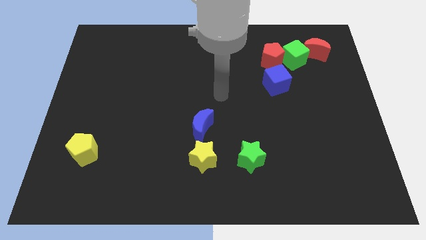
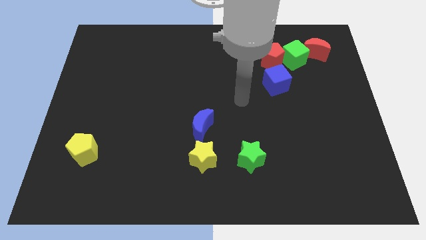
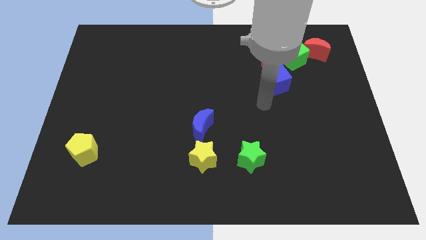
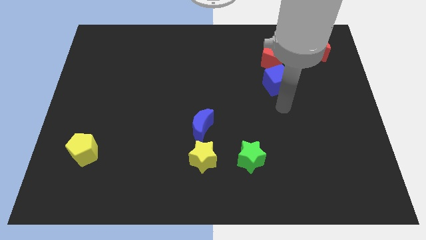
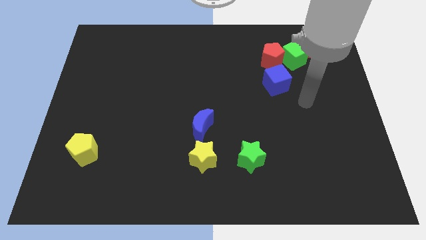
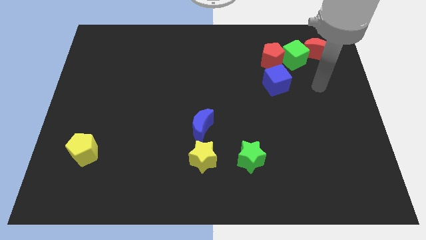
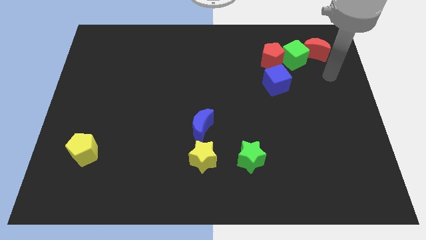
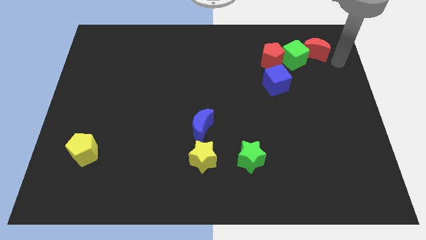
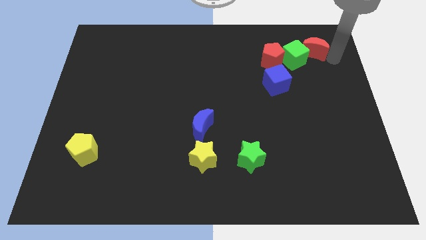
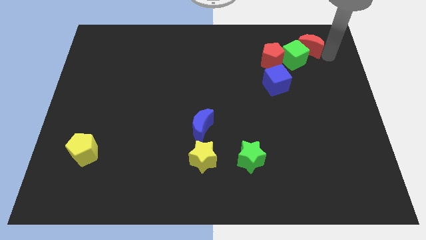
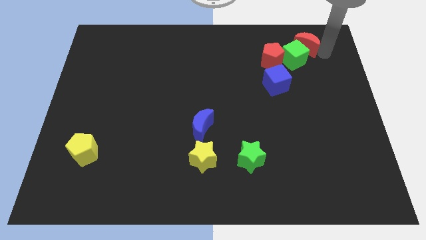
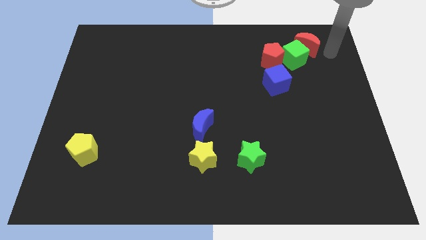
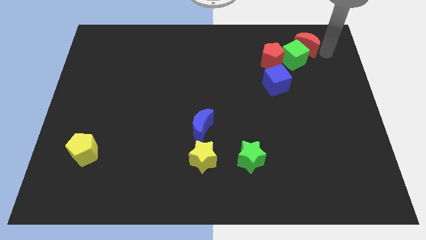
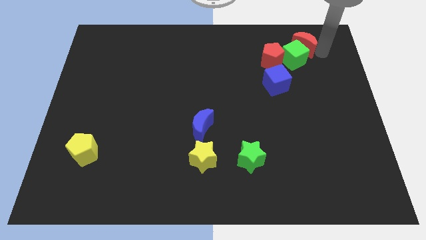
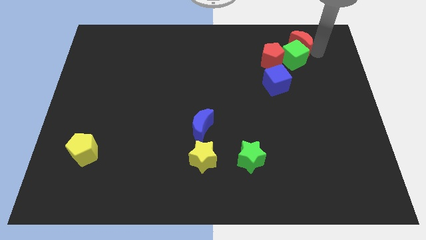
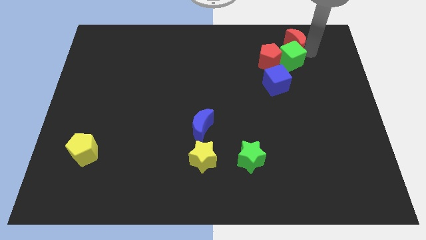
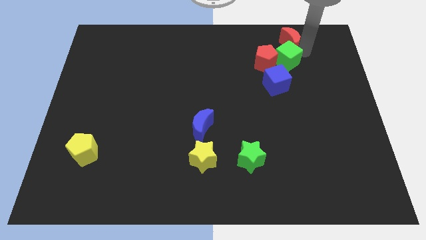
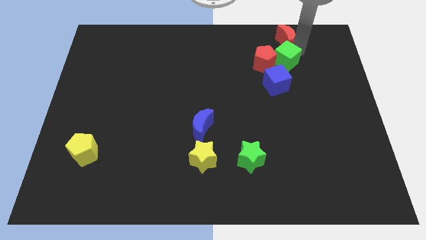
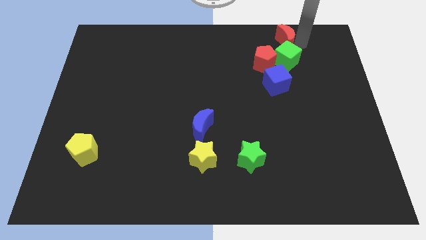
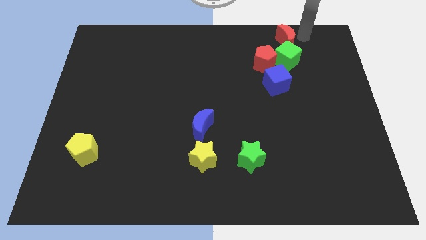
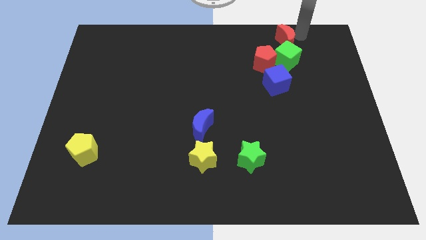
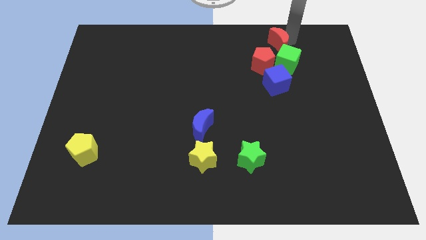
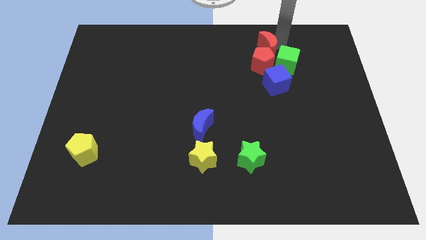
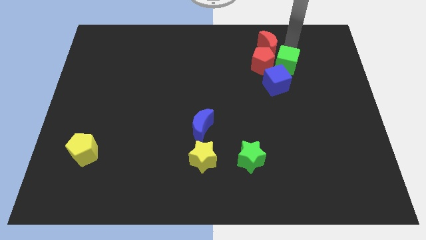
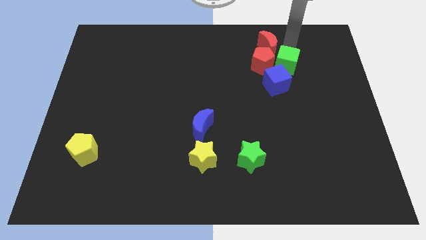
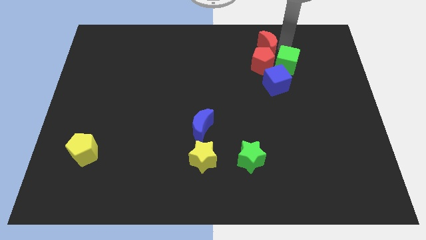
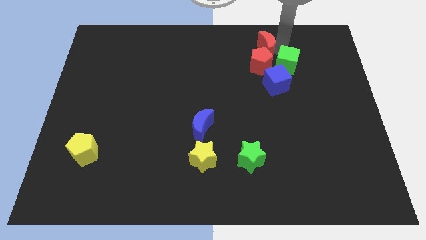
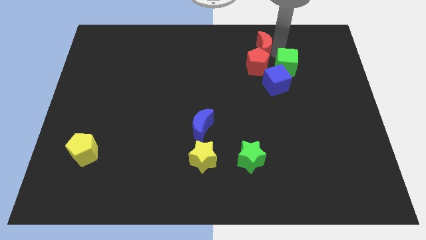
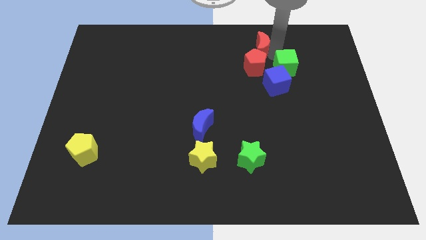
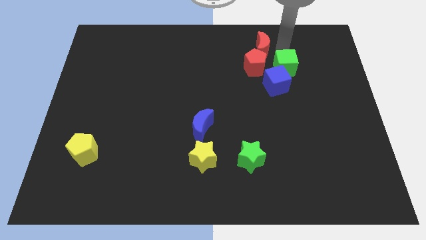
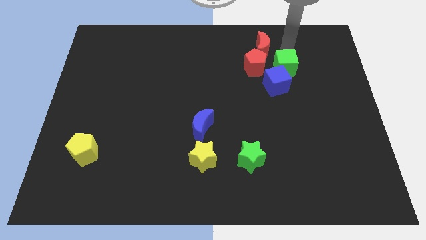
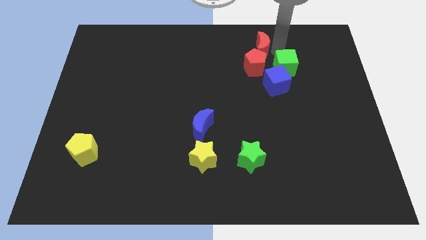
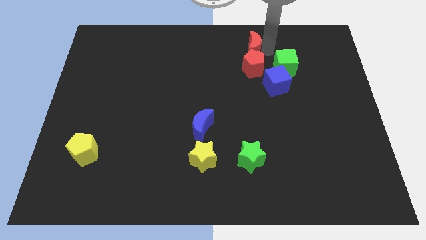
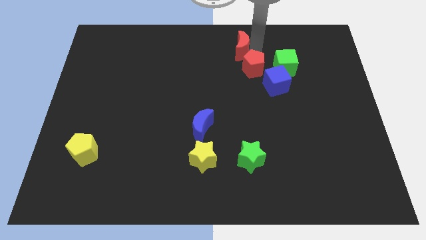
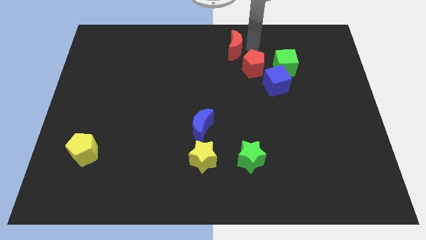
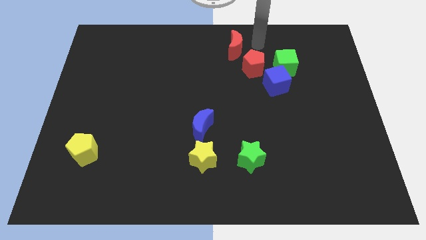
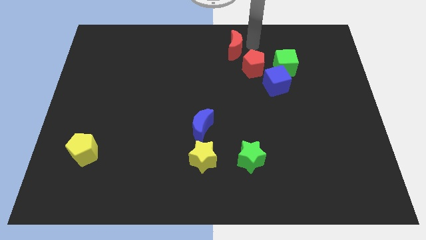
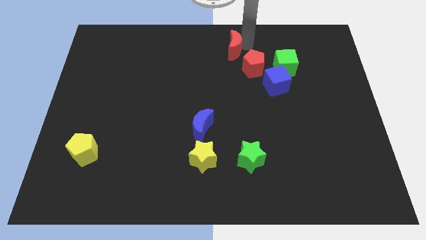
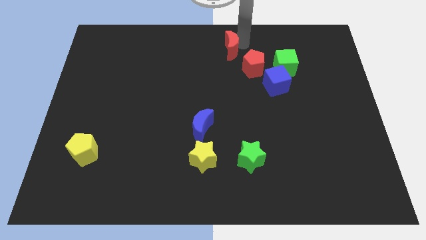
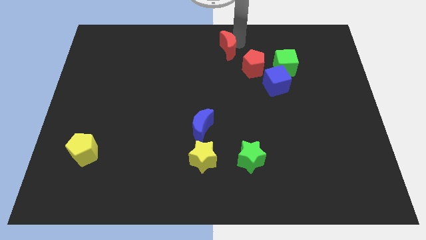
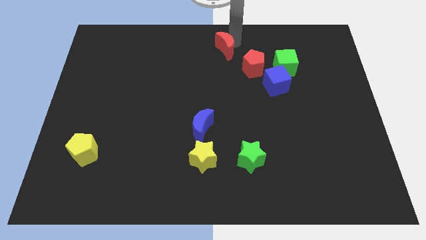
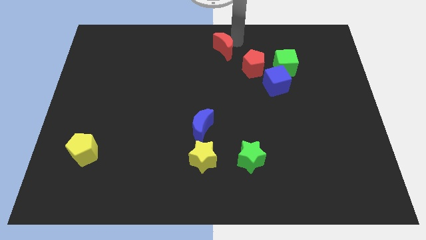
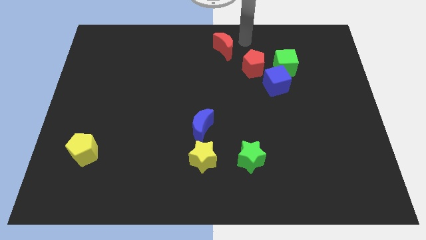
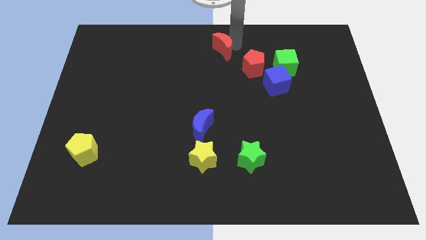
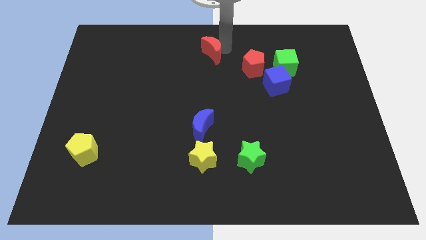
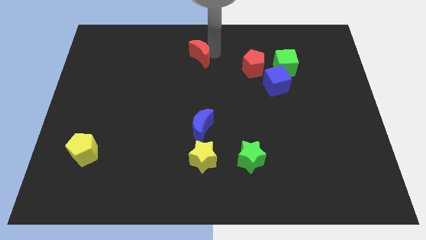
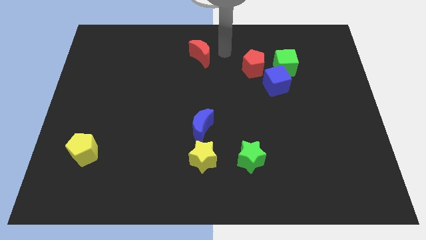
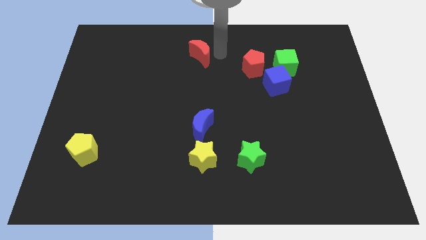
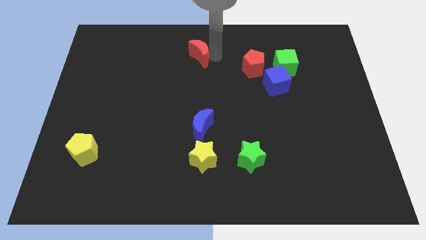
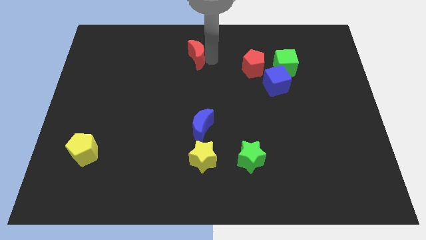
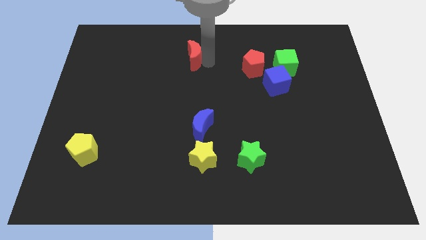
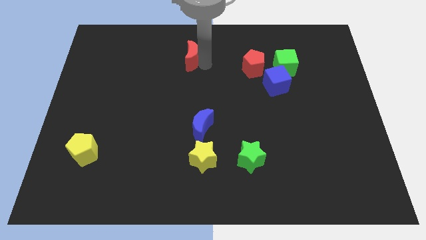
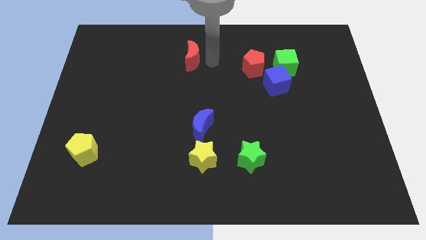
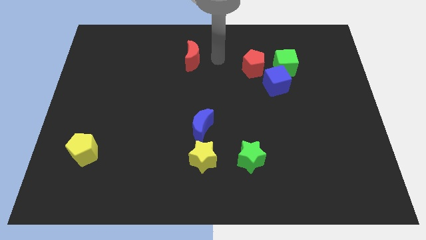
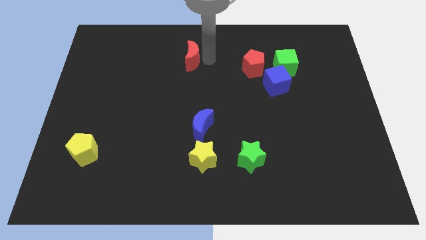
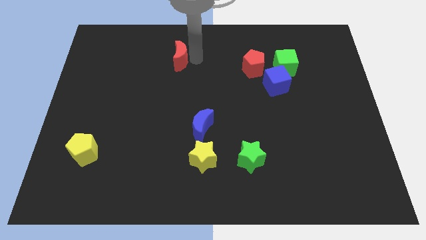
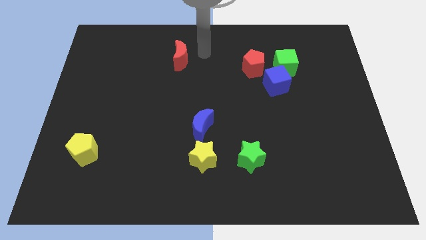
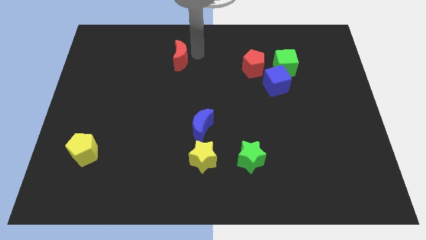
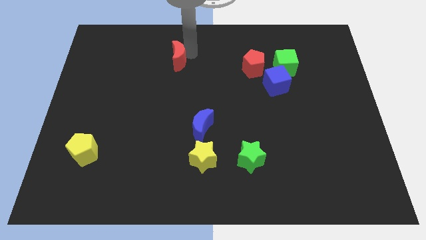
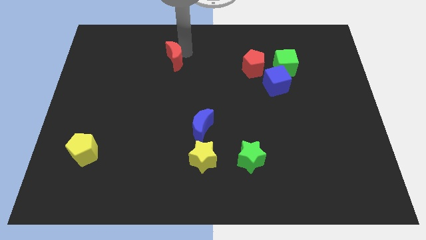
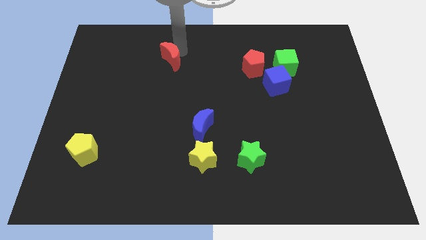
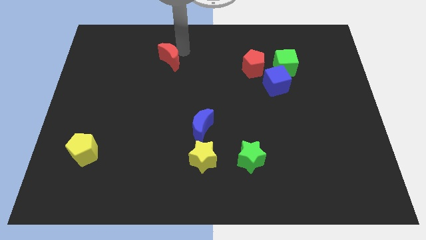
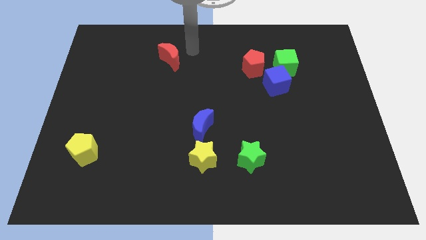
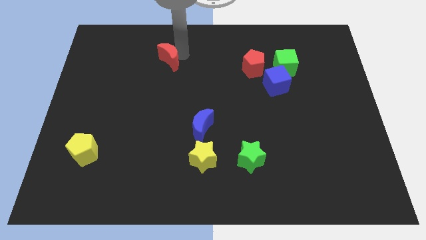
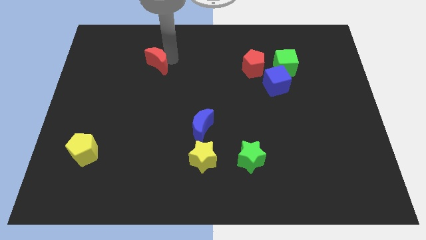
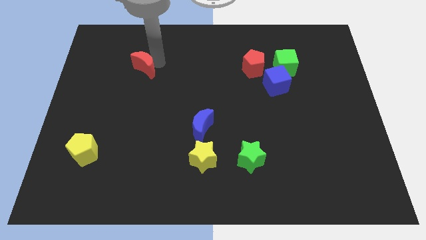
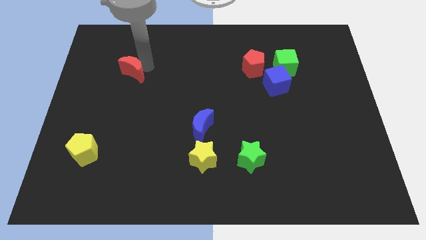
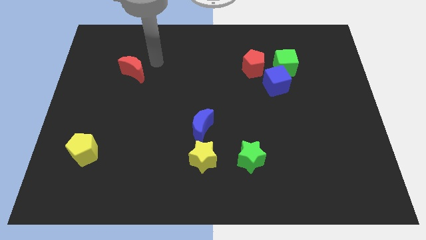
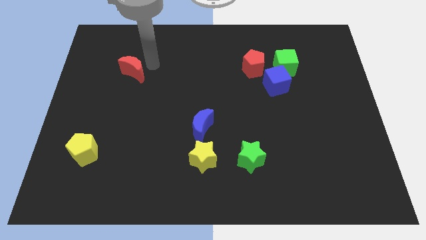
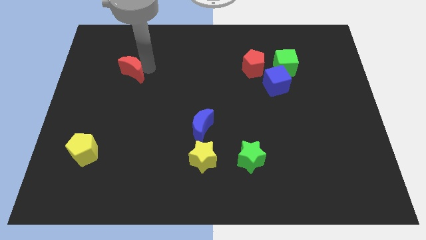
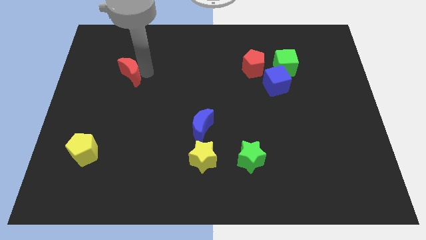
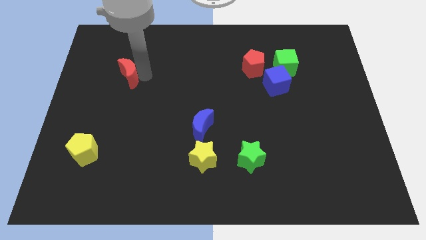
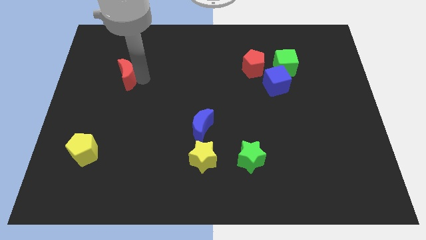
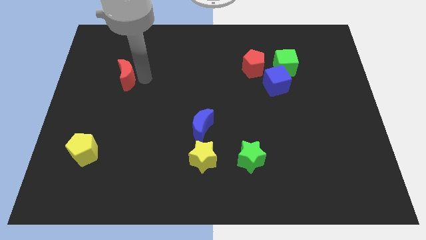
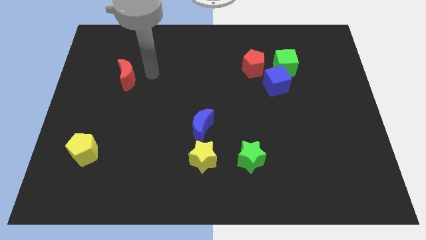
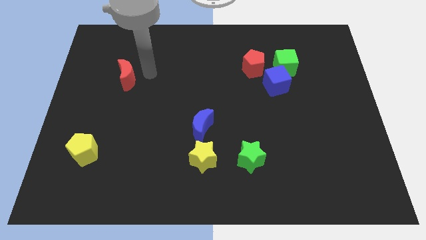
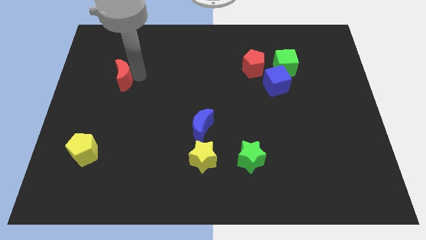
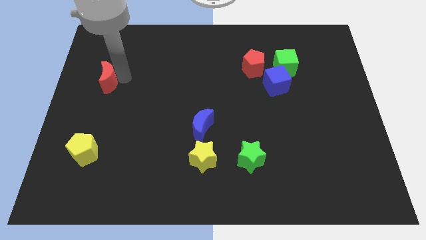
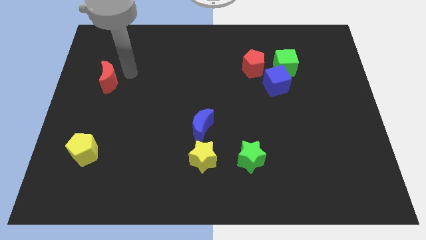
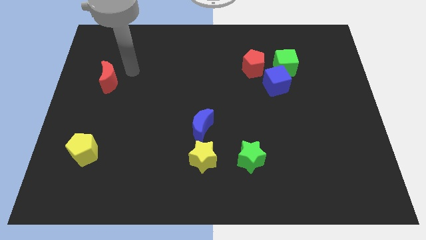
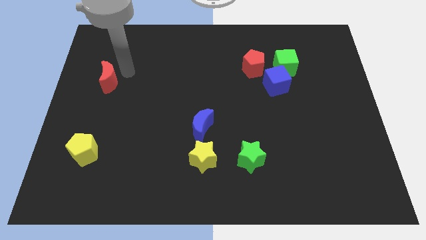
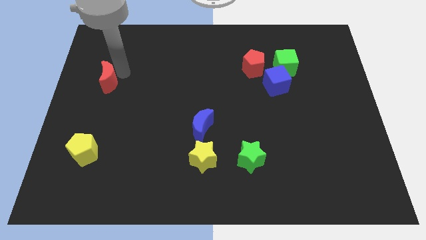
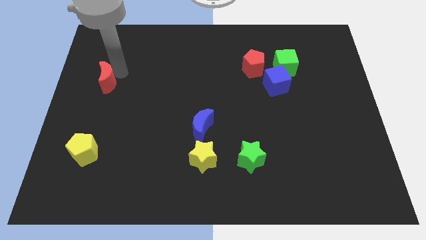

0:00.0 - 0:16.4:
put the red moon to the left side
